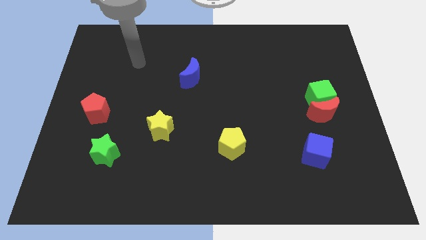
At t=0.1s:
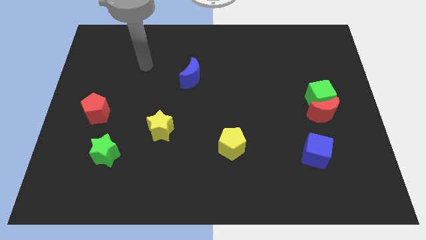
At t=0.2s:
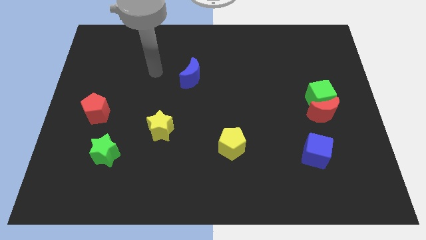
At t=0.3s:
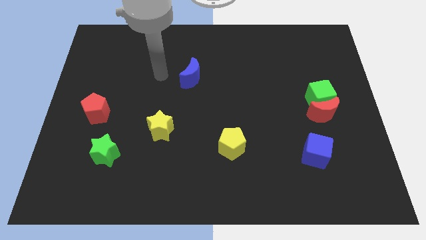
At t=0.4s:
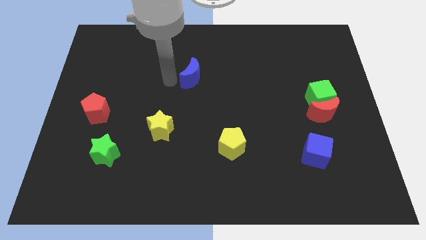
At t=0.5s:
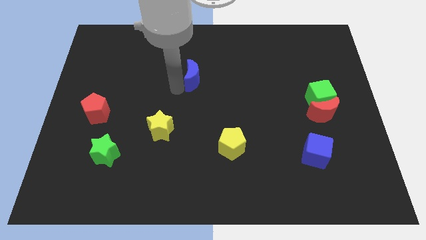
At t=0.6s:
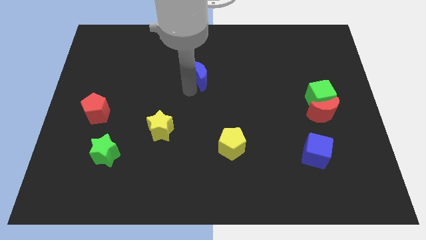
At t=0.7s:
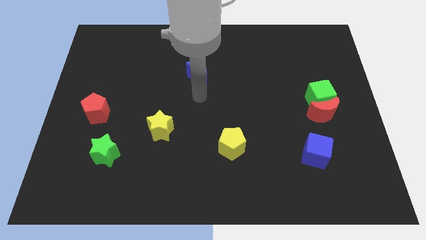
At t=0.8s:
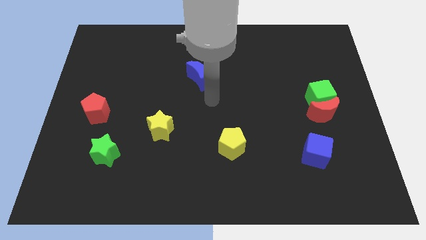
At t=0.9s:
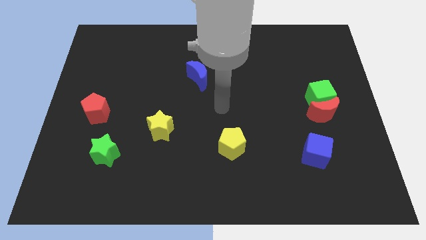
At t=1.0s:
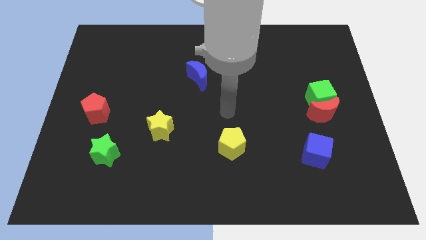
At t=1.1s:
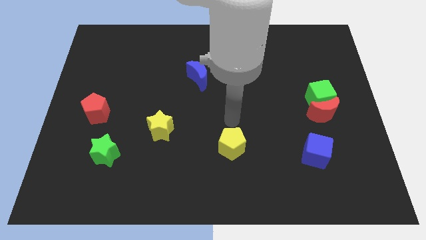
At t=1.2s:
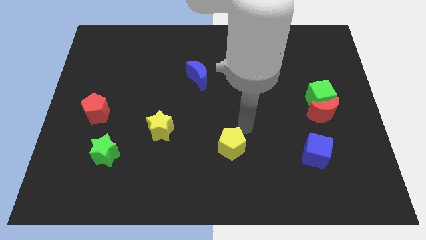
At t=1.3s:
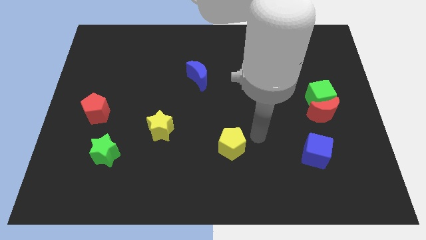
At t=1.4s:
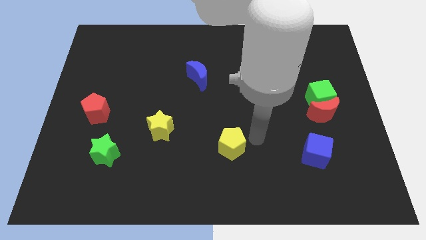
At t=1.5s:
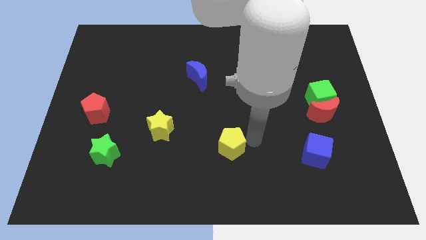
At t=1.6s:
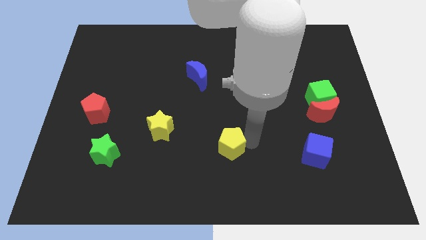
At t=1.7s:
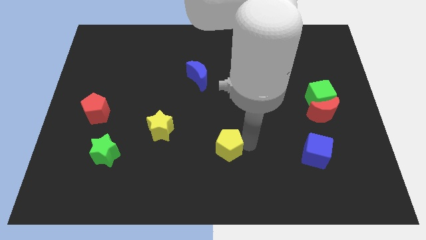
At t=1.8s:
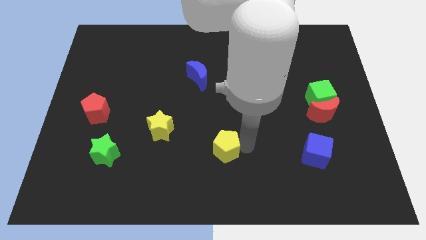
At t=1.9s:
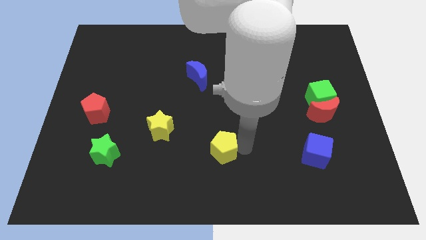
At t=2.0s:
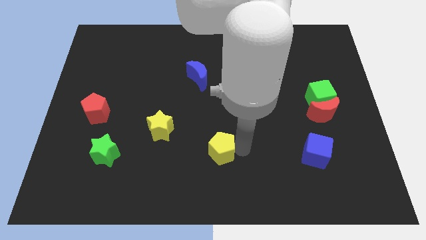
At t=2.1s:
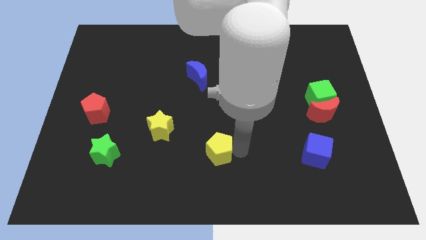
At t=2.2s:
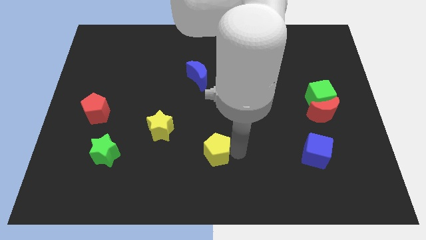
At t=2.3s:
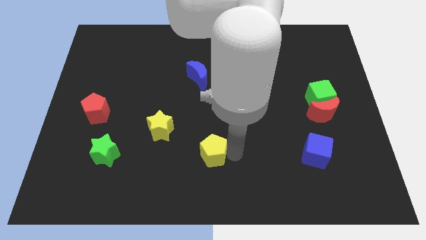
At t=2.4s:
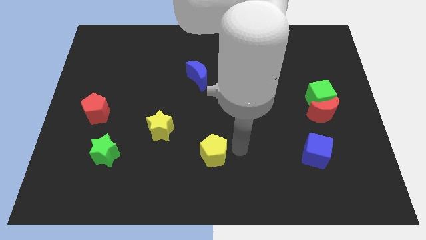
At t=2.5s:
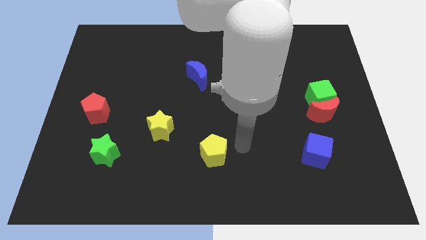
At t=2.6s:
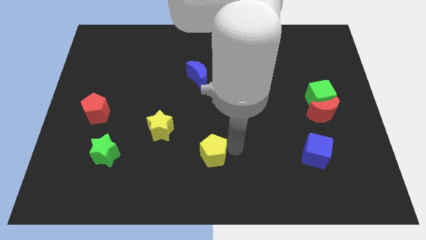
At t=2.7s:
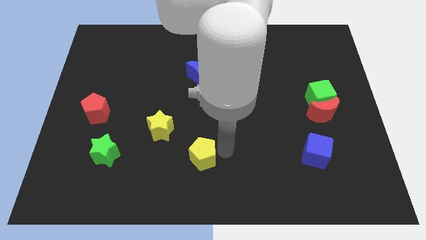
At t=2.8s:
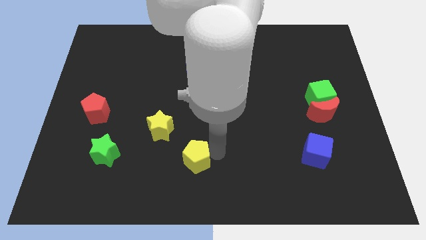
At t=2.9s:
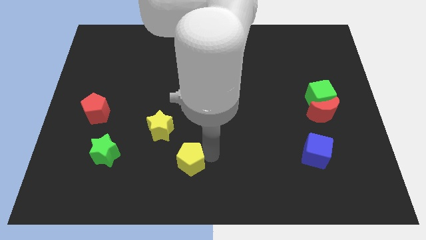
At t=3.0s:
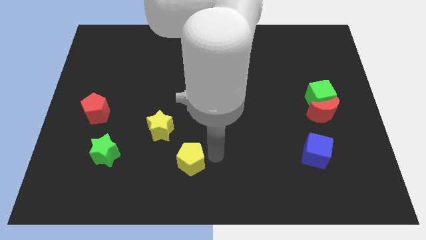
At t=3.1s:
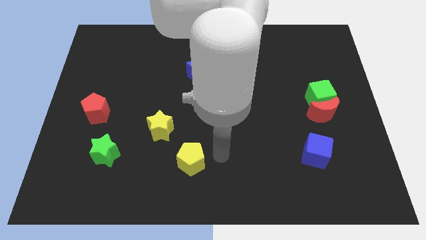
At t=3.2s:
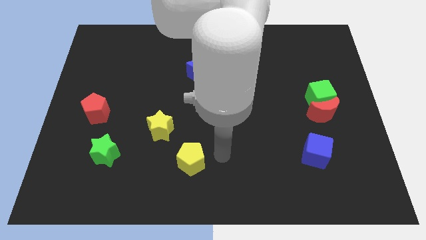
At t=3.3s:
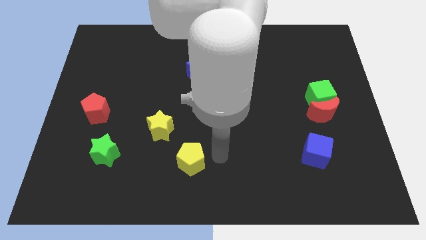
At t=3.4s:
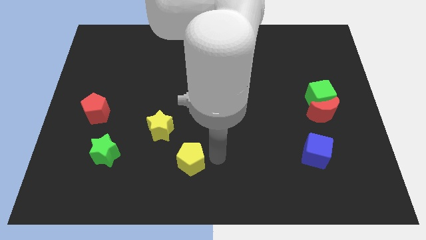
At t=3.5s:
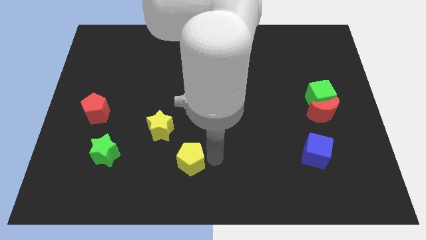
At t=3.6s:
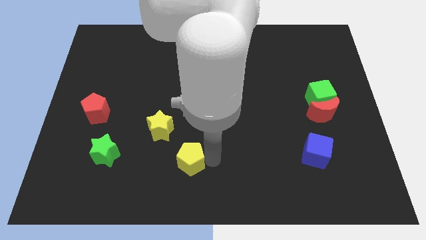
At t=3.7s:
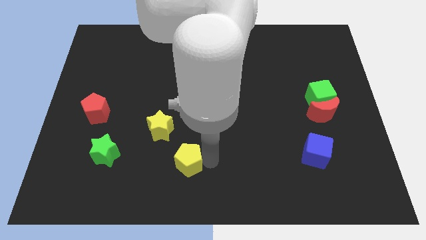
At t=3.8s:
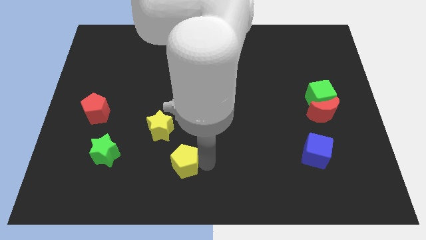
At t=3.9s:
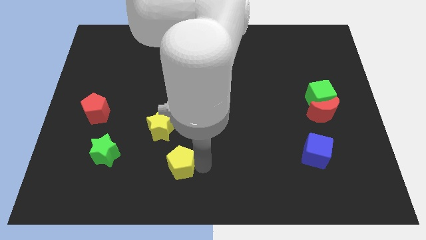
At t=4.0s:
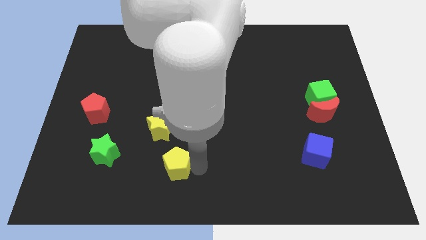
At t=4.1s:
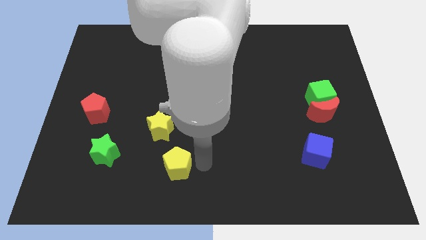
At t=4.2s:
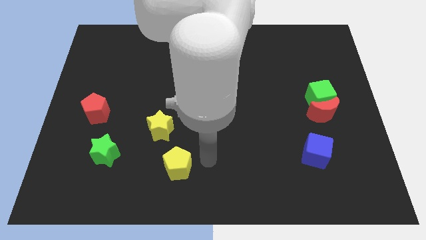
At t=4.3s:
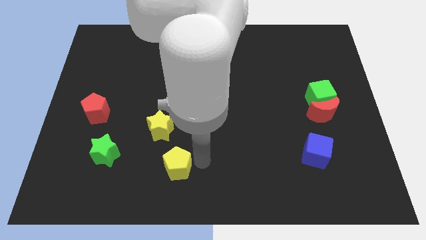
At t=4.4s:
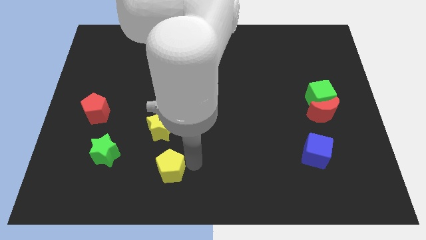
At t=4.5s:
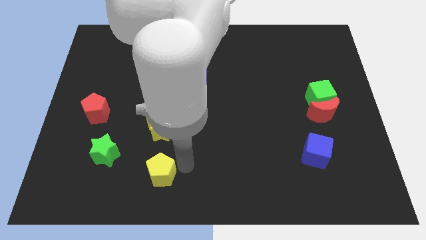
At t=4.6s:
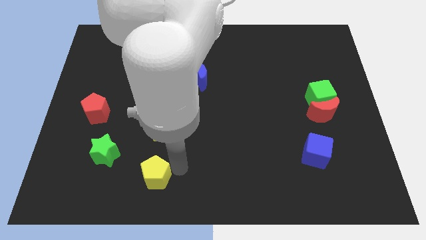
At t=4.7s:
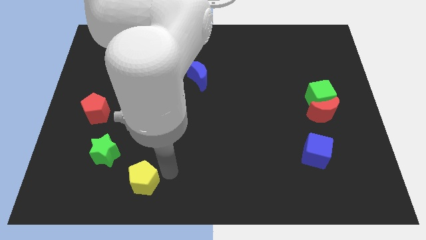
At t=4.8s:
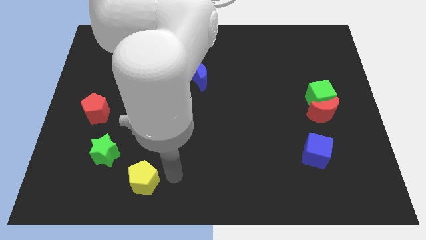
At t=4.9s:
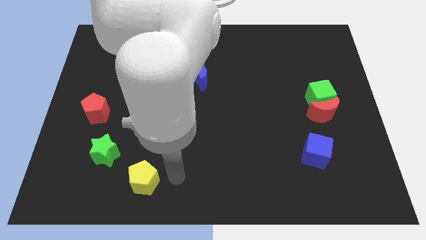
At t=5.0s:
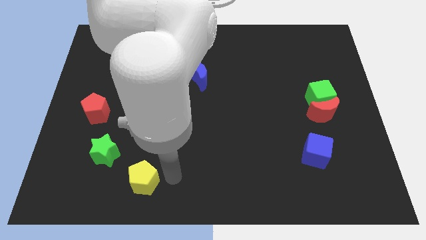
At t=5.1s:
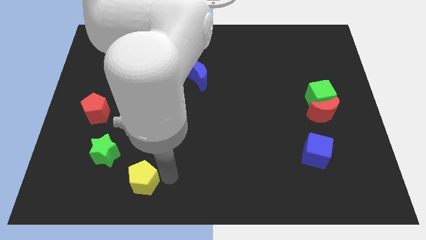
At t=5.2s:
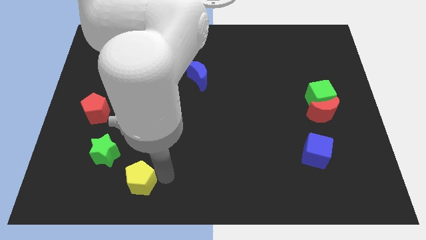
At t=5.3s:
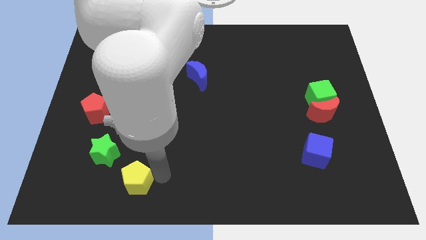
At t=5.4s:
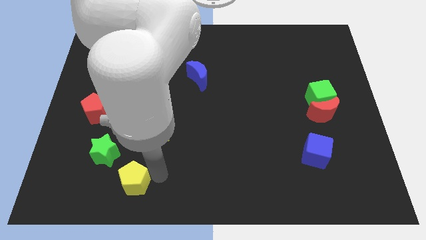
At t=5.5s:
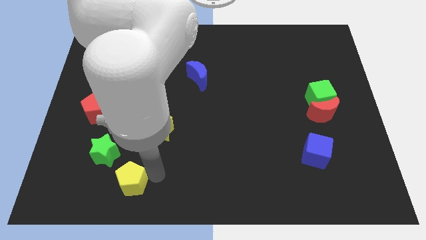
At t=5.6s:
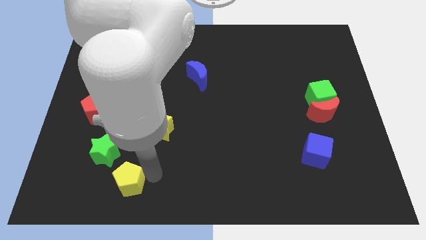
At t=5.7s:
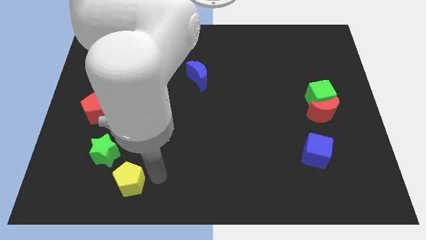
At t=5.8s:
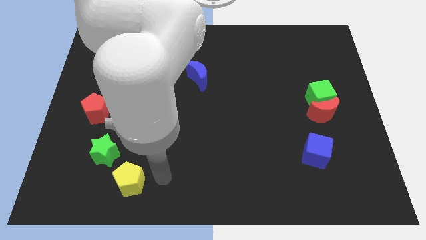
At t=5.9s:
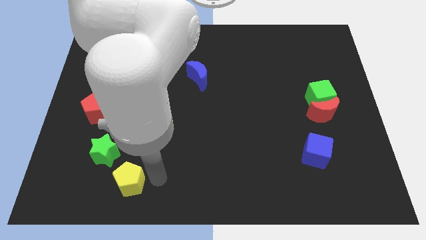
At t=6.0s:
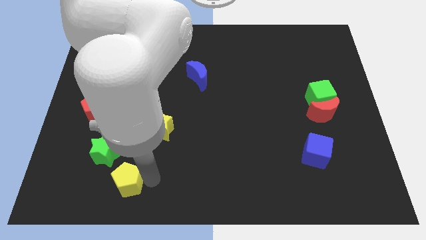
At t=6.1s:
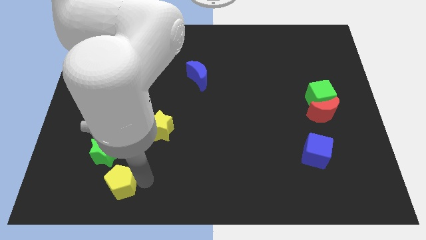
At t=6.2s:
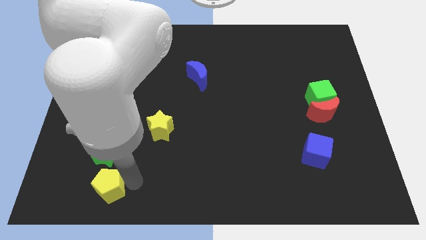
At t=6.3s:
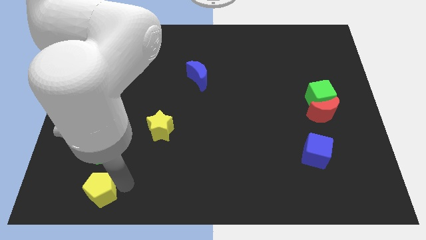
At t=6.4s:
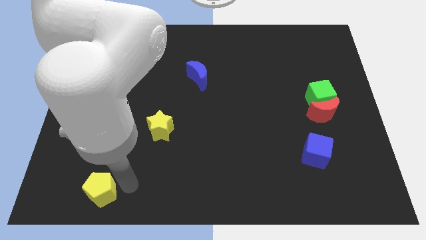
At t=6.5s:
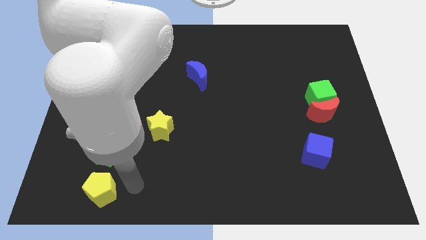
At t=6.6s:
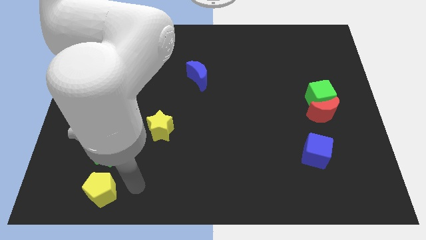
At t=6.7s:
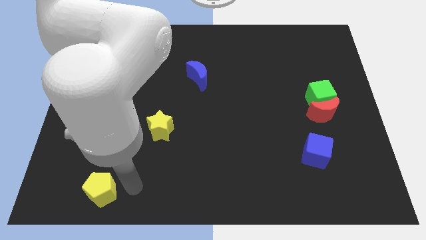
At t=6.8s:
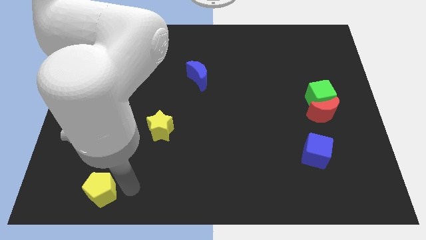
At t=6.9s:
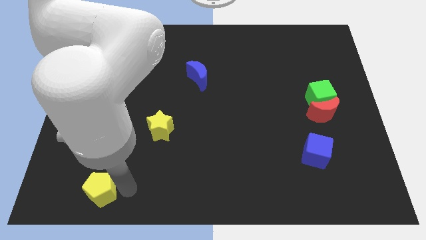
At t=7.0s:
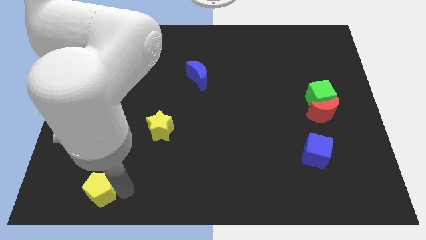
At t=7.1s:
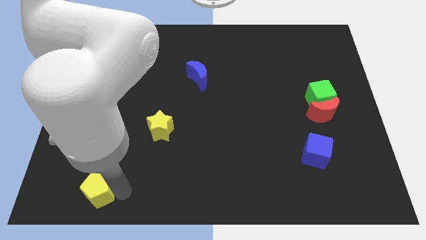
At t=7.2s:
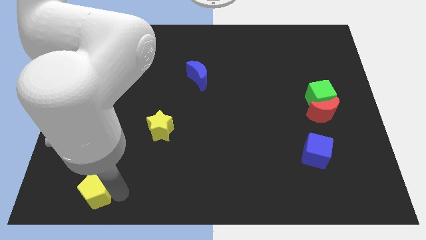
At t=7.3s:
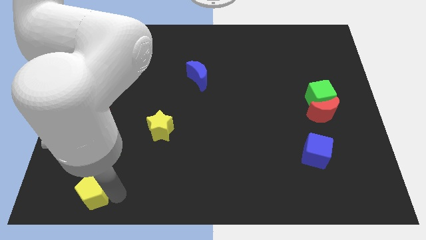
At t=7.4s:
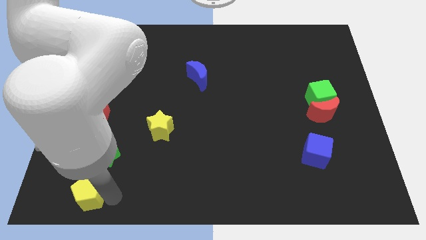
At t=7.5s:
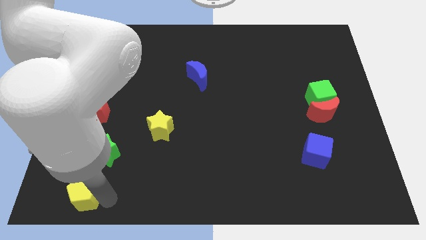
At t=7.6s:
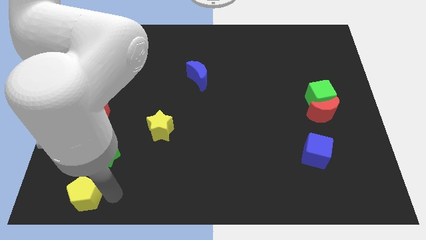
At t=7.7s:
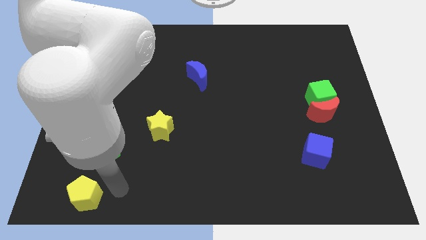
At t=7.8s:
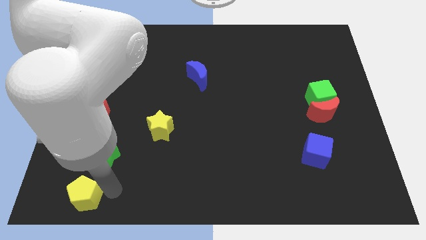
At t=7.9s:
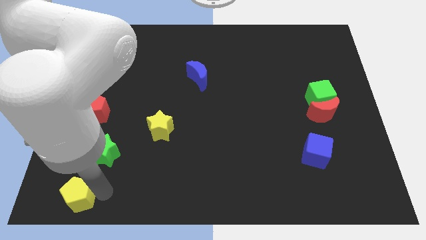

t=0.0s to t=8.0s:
put the yellow pentagon to the bottom left of the board
